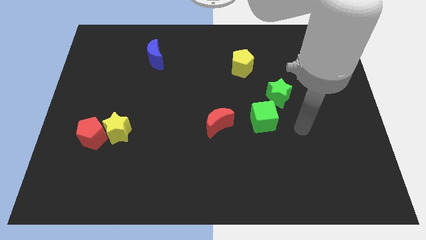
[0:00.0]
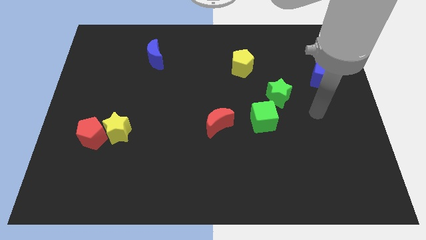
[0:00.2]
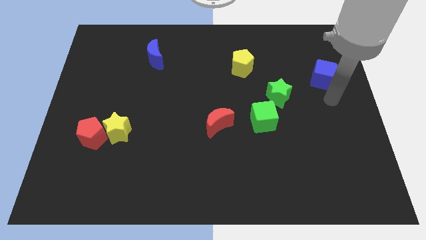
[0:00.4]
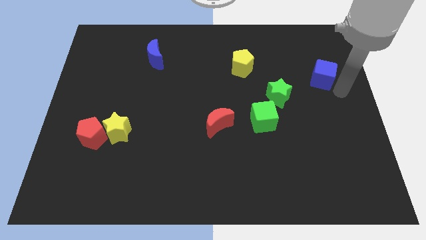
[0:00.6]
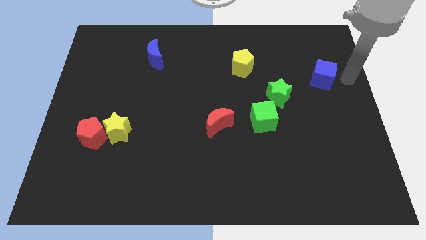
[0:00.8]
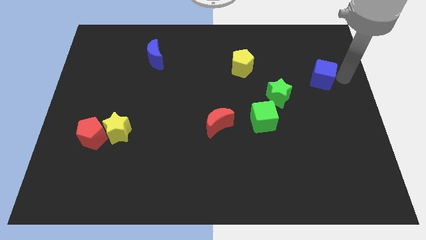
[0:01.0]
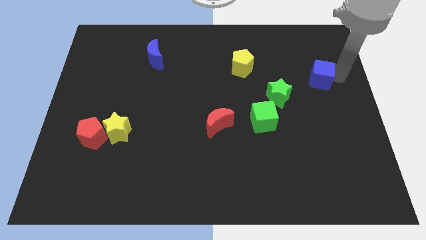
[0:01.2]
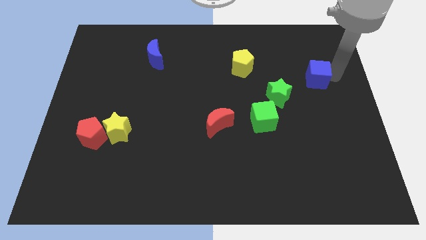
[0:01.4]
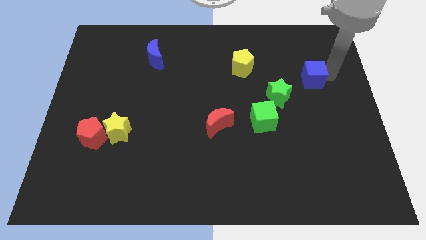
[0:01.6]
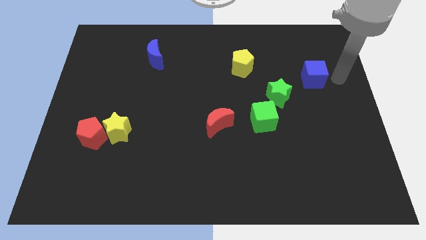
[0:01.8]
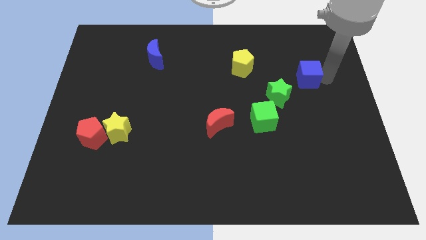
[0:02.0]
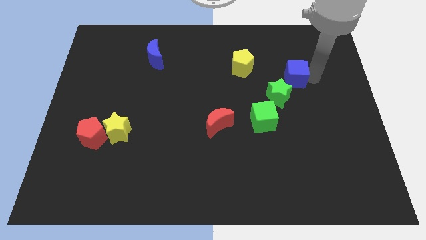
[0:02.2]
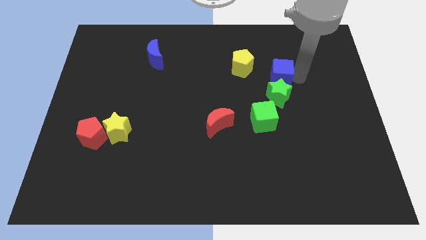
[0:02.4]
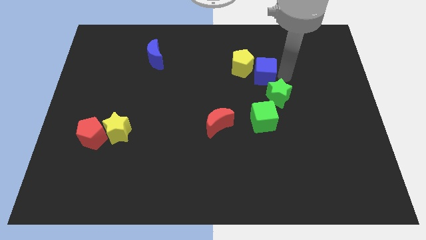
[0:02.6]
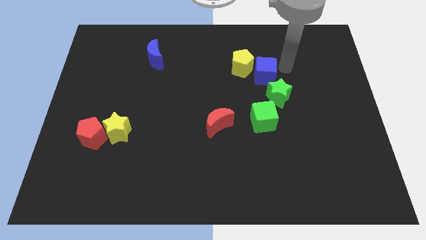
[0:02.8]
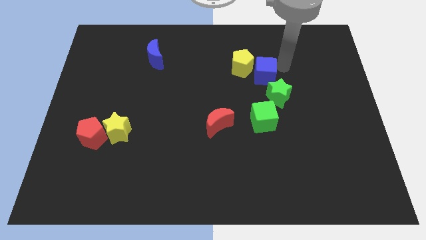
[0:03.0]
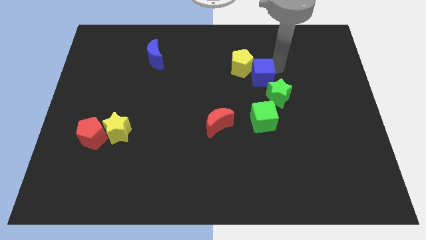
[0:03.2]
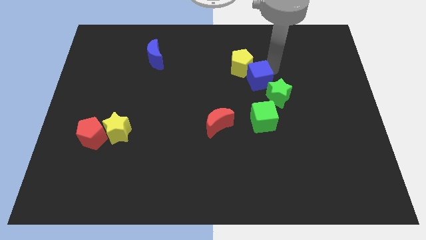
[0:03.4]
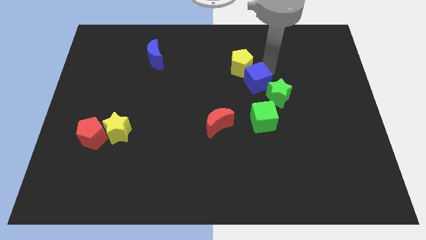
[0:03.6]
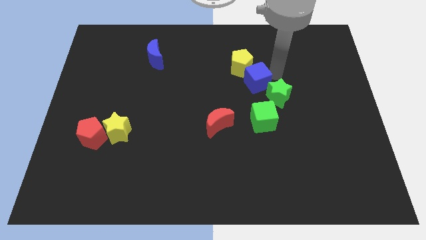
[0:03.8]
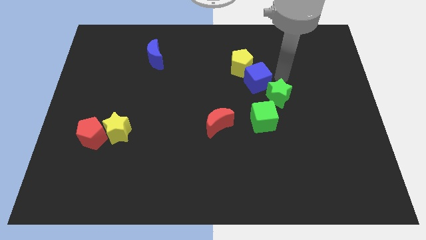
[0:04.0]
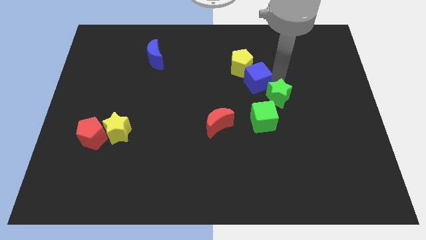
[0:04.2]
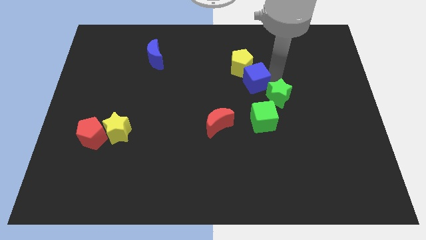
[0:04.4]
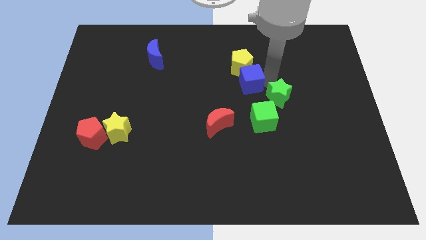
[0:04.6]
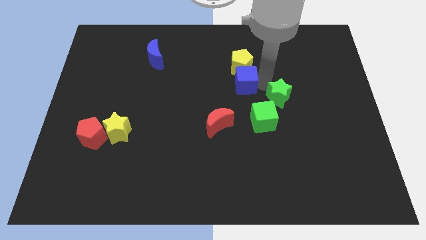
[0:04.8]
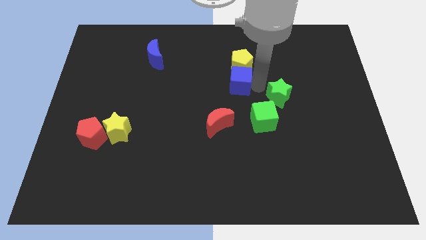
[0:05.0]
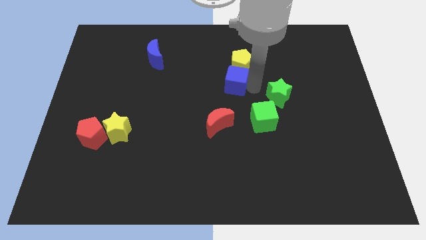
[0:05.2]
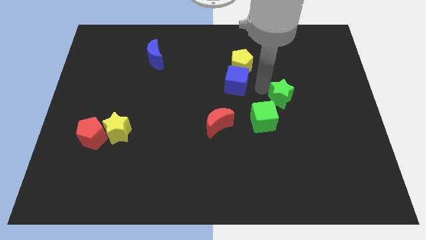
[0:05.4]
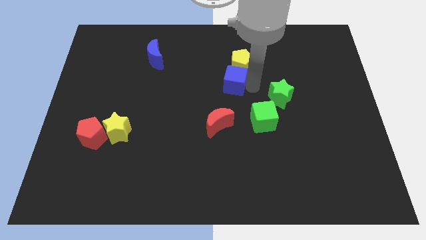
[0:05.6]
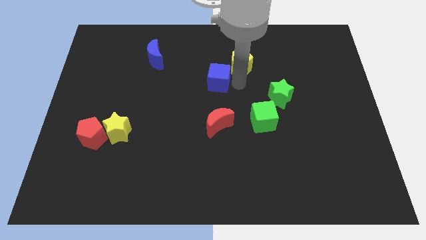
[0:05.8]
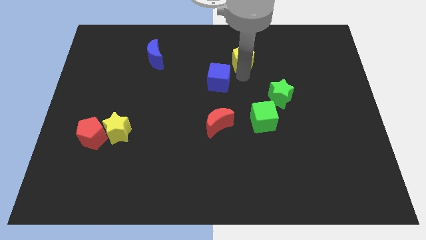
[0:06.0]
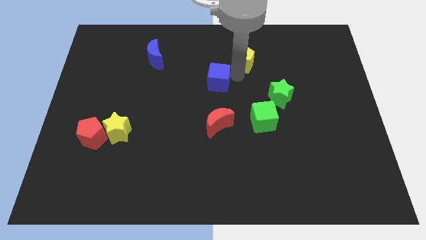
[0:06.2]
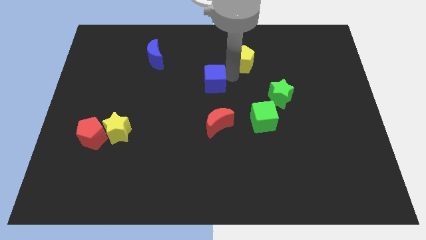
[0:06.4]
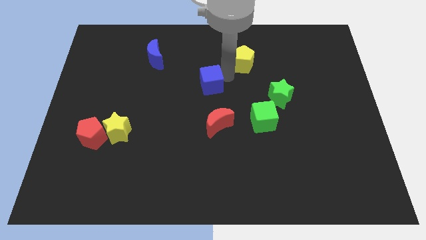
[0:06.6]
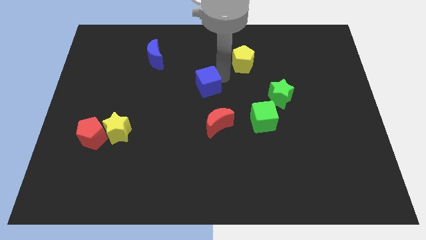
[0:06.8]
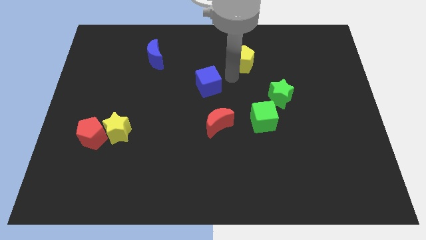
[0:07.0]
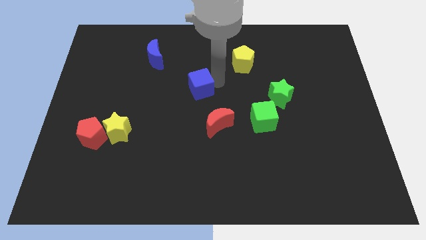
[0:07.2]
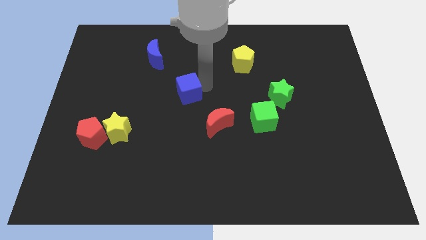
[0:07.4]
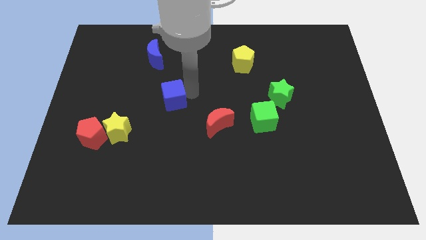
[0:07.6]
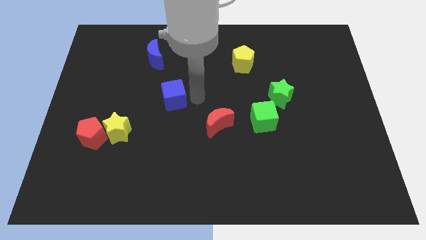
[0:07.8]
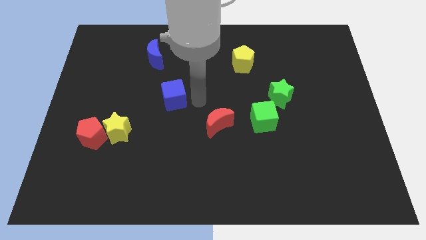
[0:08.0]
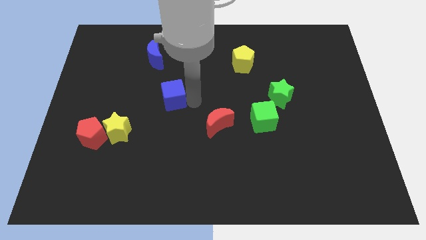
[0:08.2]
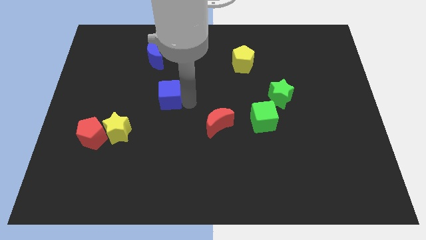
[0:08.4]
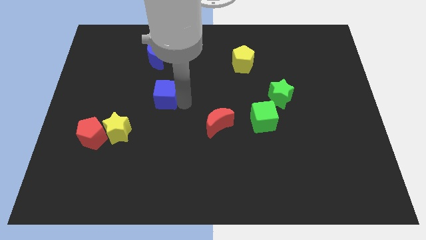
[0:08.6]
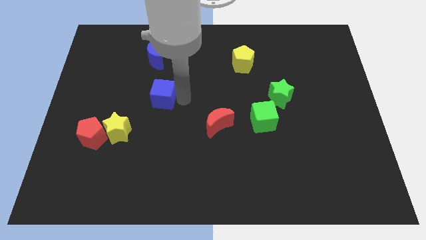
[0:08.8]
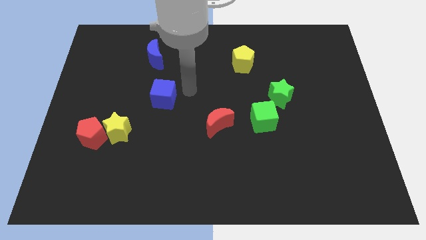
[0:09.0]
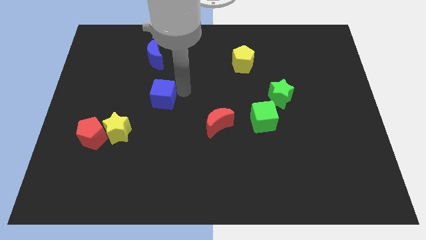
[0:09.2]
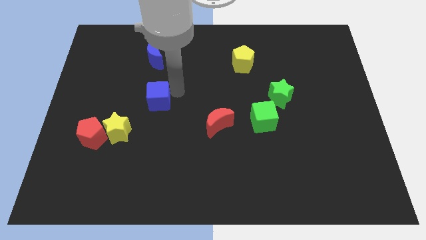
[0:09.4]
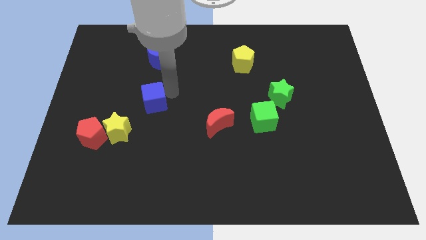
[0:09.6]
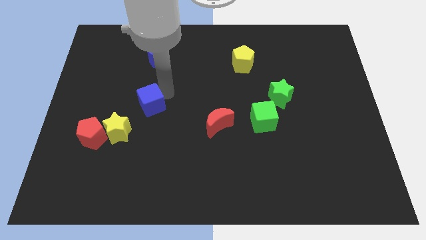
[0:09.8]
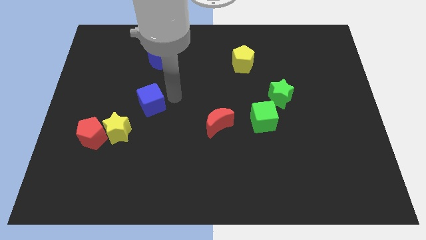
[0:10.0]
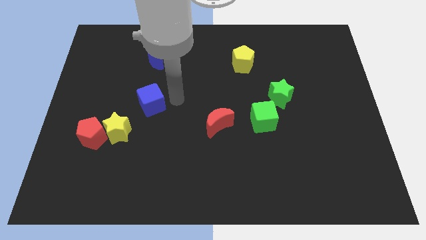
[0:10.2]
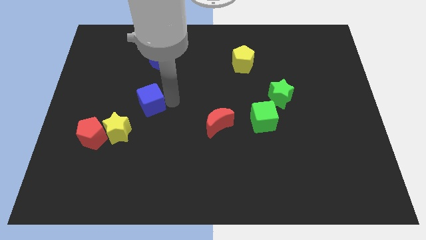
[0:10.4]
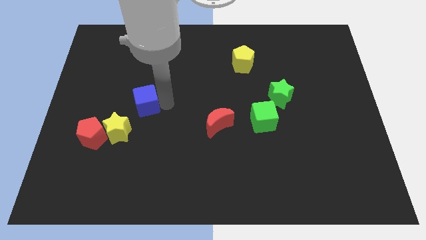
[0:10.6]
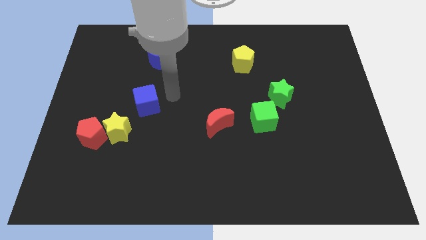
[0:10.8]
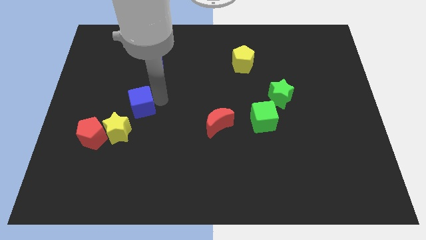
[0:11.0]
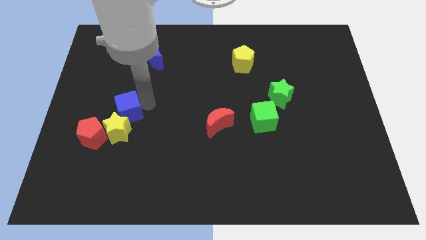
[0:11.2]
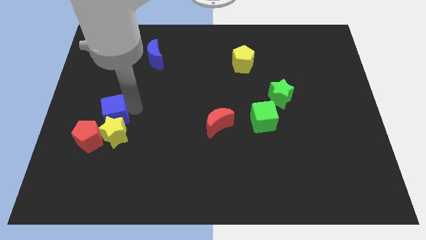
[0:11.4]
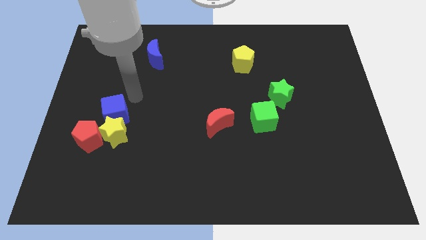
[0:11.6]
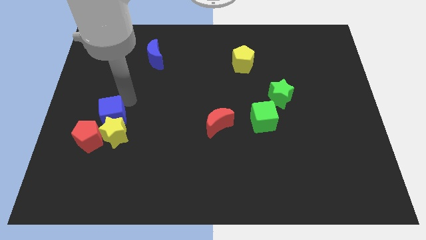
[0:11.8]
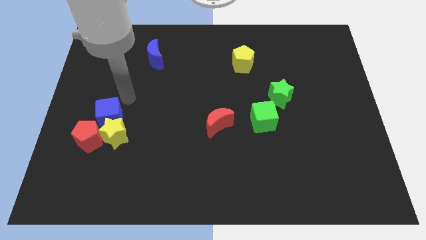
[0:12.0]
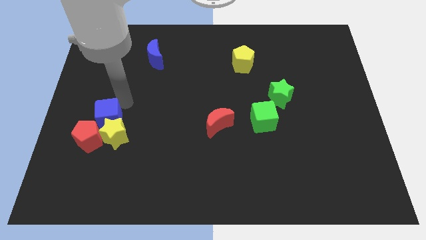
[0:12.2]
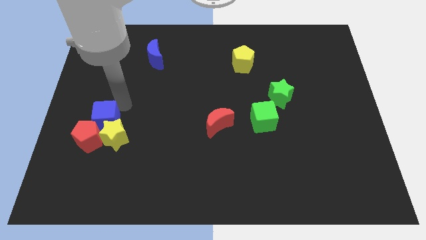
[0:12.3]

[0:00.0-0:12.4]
slide the blue cube towards the red pentagon

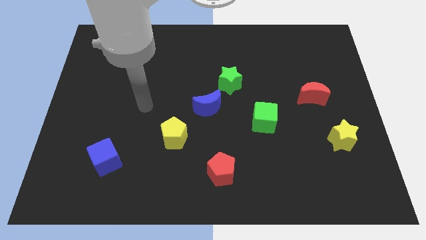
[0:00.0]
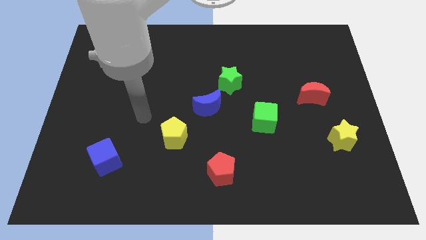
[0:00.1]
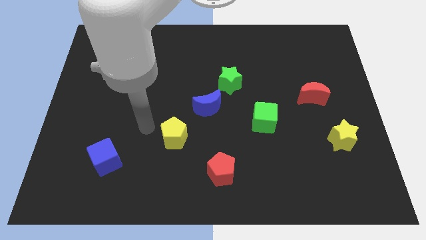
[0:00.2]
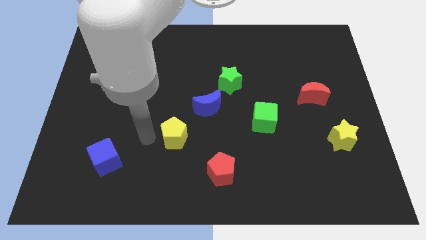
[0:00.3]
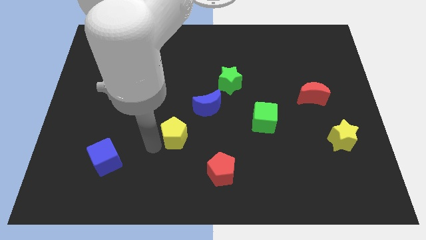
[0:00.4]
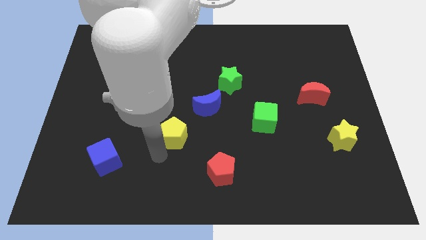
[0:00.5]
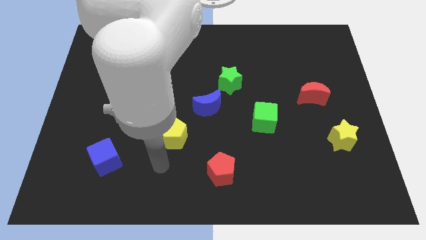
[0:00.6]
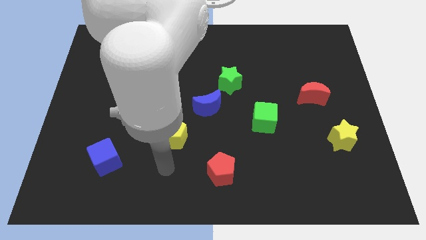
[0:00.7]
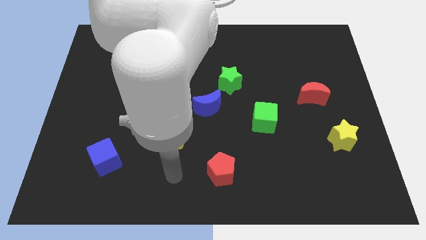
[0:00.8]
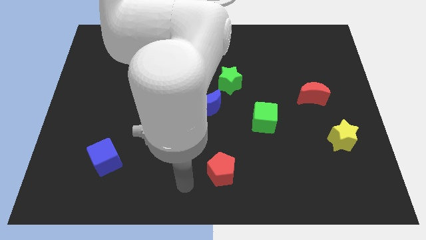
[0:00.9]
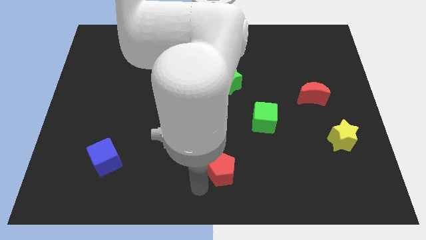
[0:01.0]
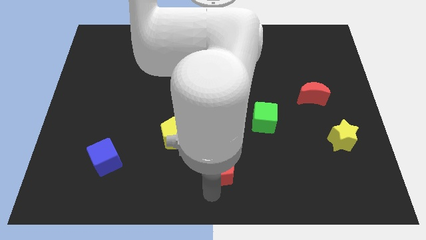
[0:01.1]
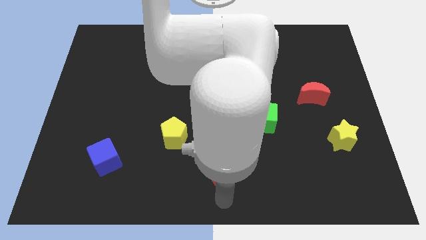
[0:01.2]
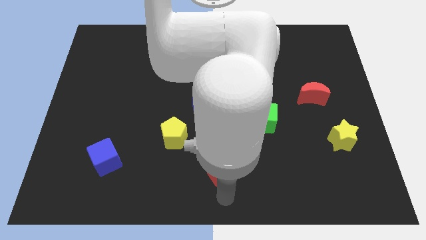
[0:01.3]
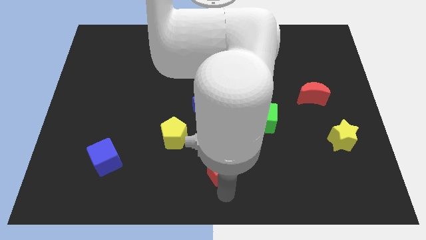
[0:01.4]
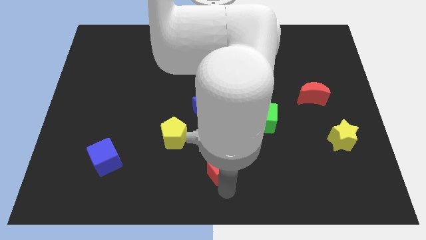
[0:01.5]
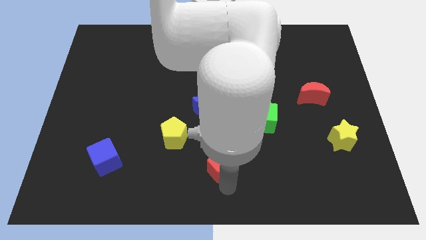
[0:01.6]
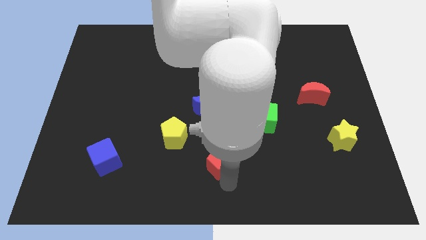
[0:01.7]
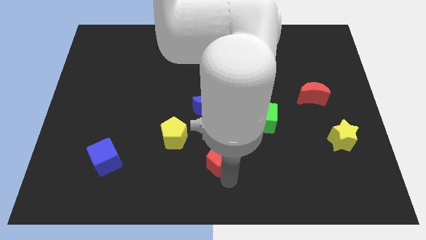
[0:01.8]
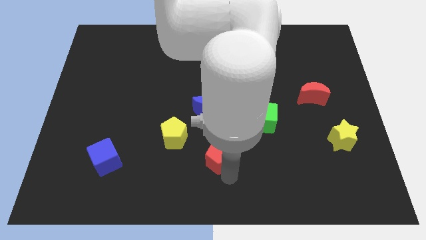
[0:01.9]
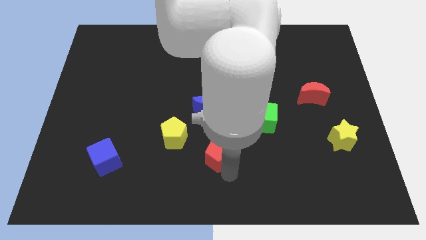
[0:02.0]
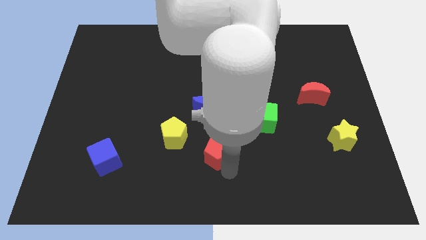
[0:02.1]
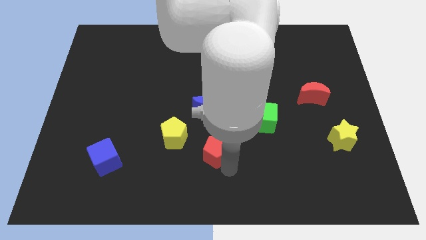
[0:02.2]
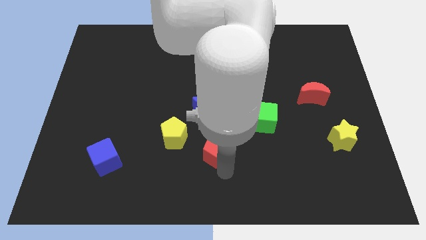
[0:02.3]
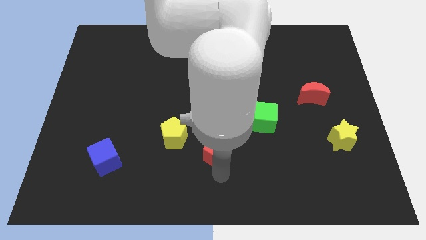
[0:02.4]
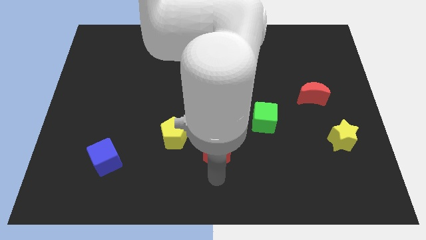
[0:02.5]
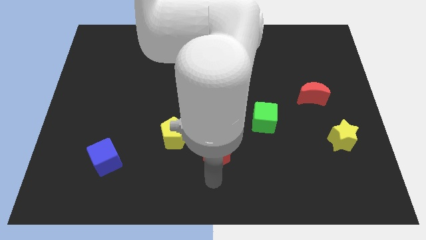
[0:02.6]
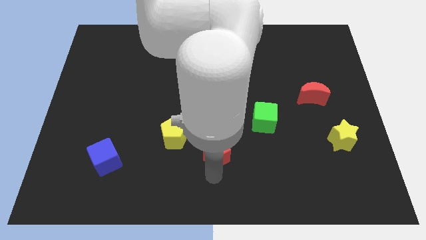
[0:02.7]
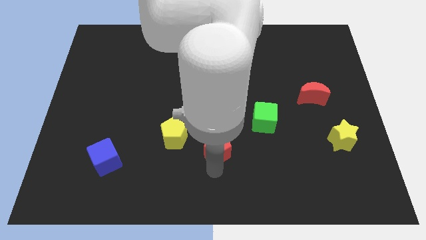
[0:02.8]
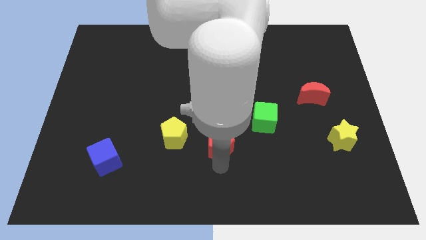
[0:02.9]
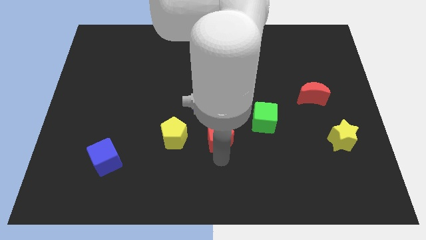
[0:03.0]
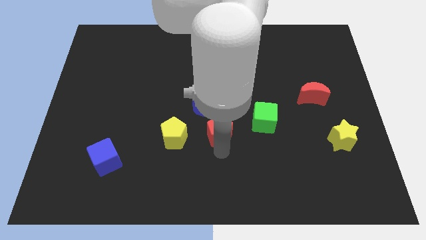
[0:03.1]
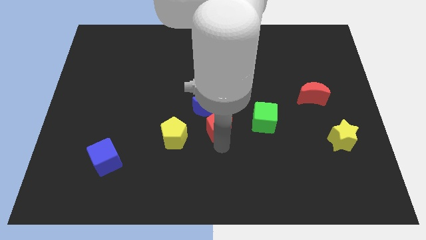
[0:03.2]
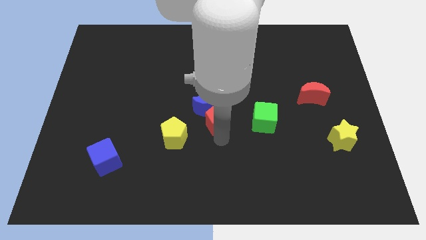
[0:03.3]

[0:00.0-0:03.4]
slide the red pentagon to the blue moon
